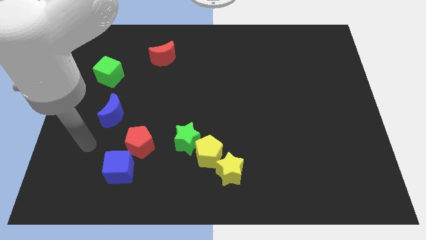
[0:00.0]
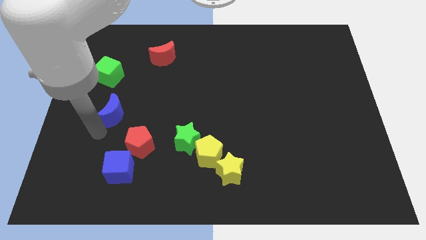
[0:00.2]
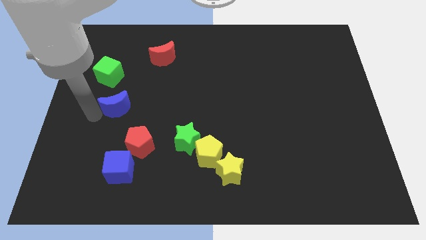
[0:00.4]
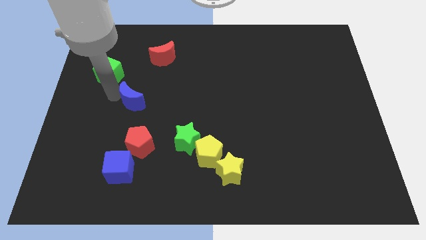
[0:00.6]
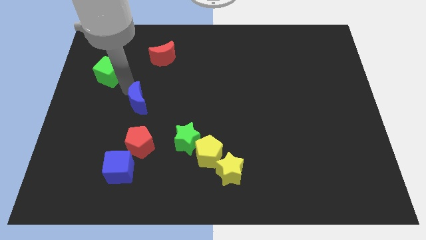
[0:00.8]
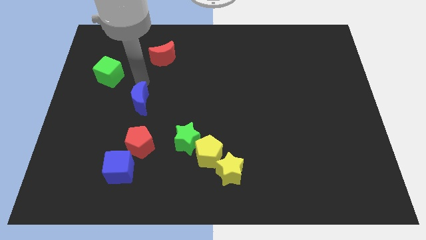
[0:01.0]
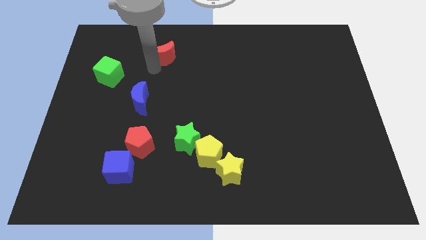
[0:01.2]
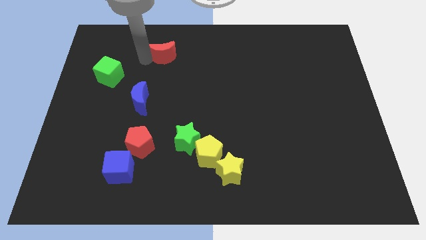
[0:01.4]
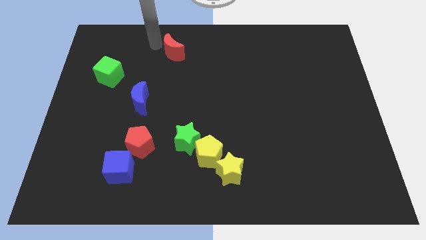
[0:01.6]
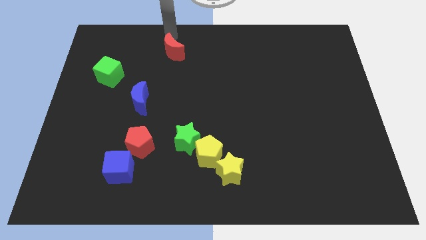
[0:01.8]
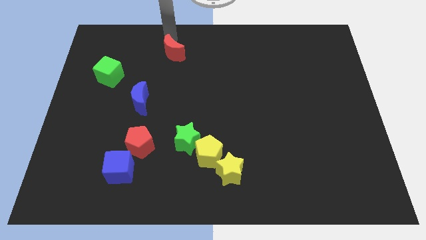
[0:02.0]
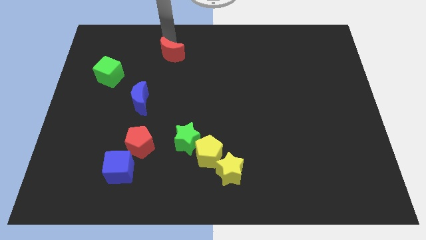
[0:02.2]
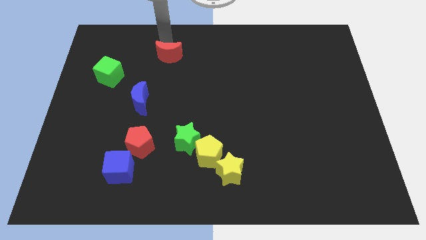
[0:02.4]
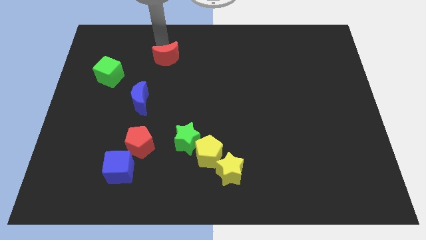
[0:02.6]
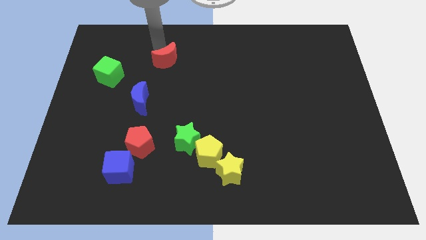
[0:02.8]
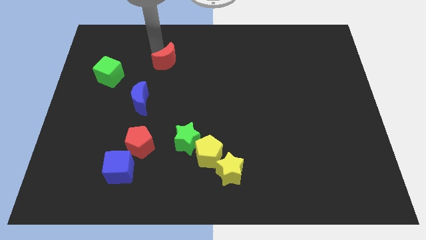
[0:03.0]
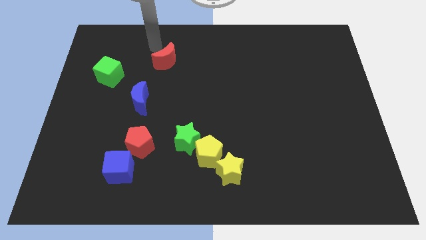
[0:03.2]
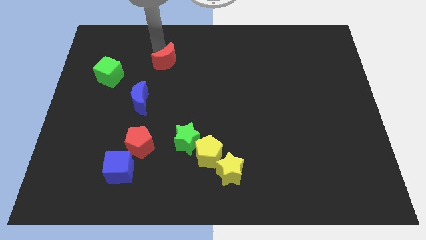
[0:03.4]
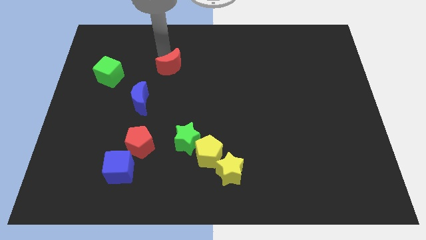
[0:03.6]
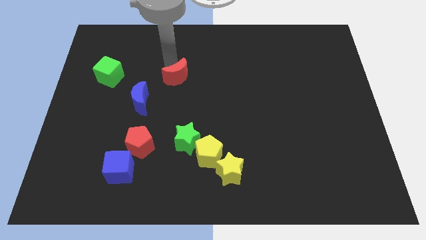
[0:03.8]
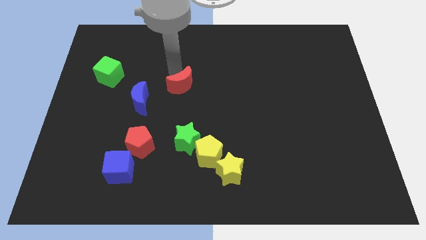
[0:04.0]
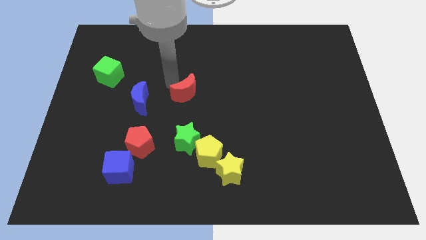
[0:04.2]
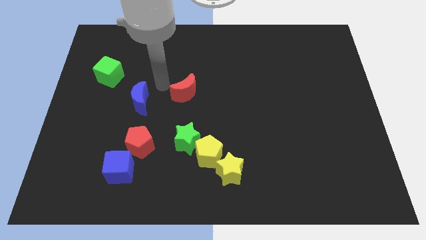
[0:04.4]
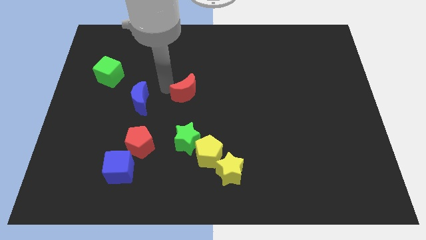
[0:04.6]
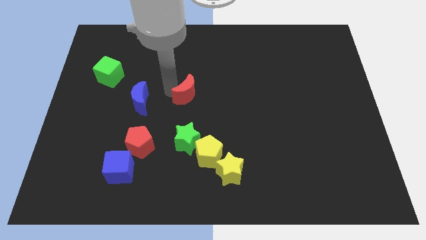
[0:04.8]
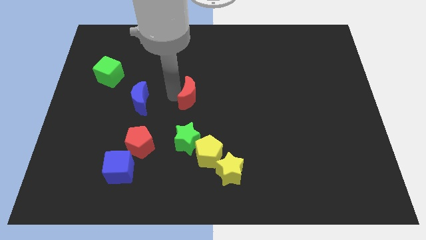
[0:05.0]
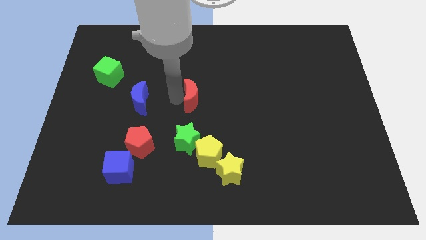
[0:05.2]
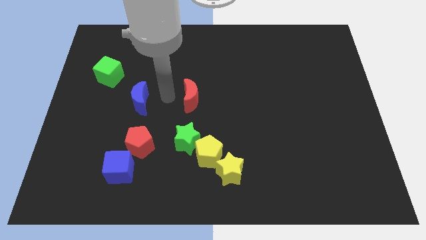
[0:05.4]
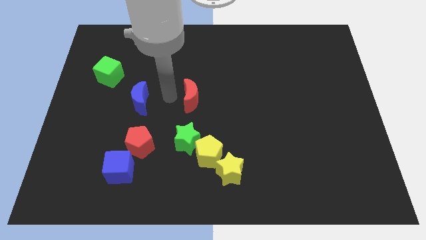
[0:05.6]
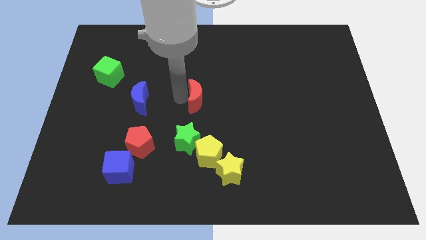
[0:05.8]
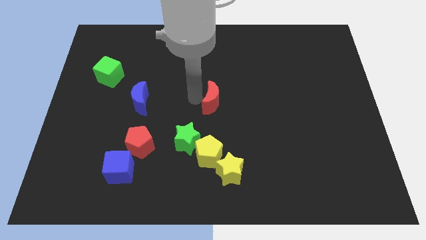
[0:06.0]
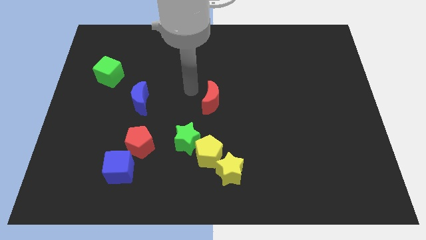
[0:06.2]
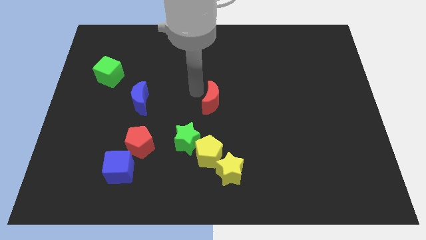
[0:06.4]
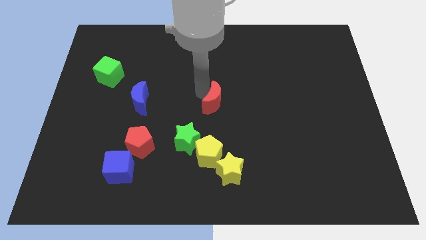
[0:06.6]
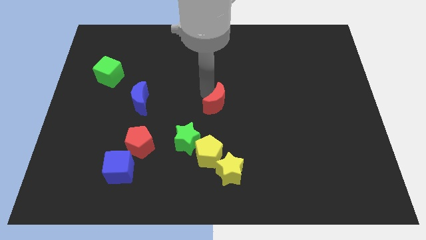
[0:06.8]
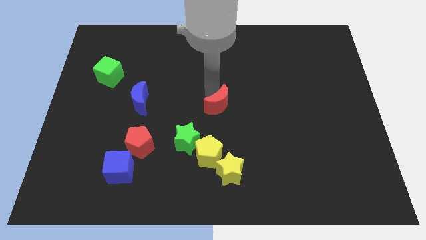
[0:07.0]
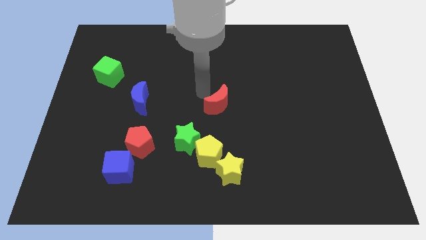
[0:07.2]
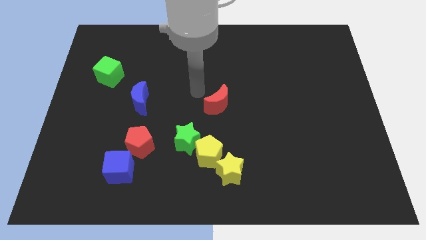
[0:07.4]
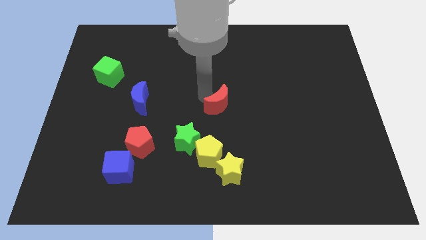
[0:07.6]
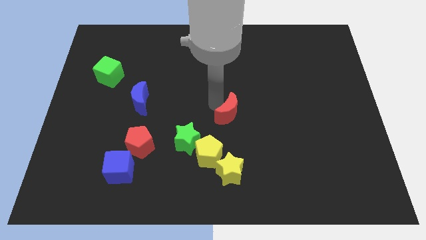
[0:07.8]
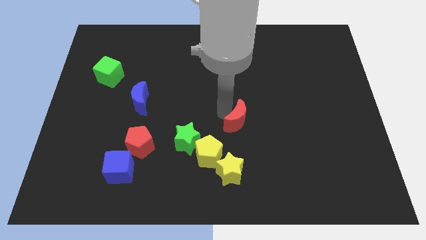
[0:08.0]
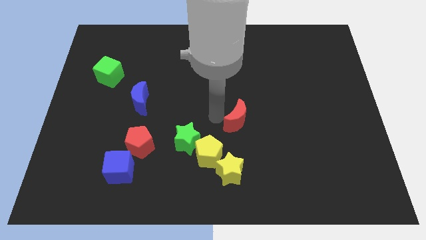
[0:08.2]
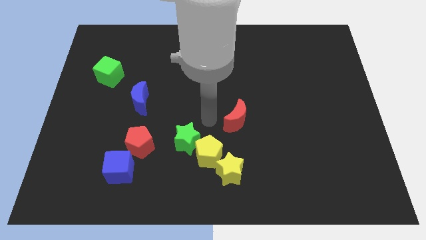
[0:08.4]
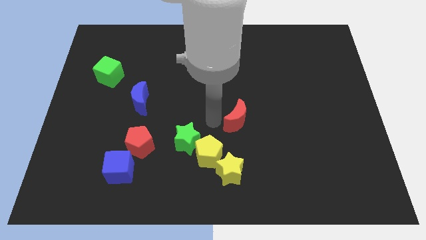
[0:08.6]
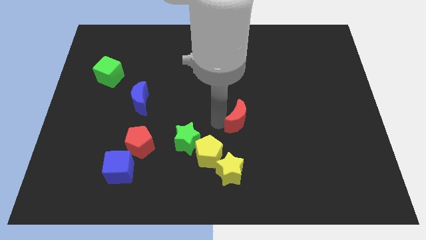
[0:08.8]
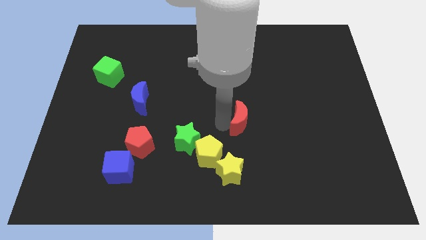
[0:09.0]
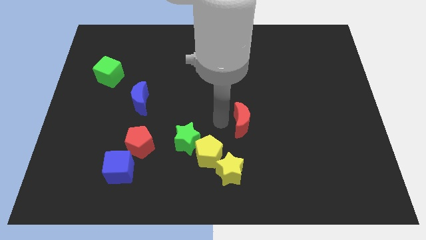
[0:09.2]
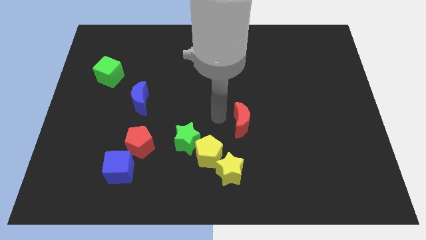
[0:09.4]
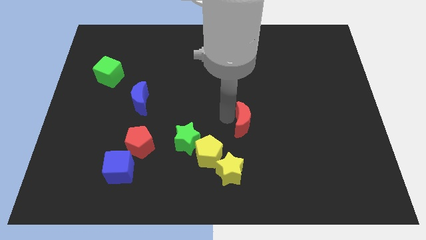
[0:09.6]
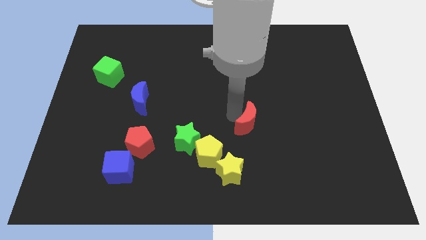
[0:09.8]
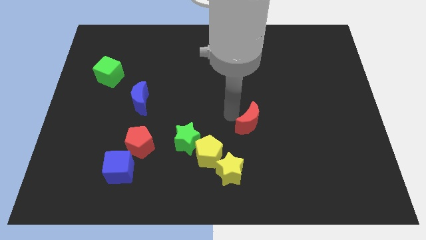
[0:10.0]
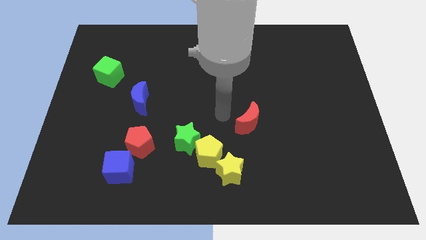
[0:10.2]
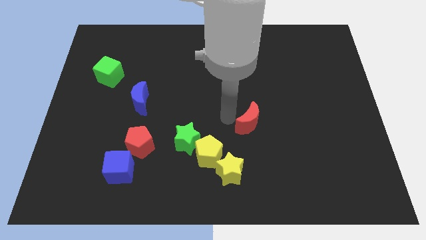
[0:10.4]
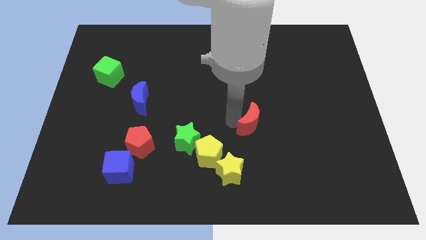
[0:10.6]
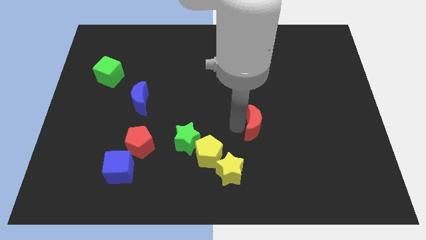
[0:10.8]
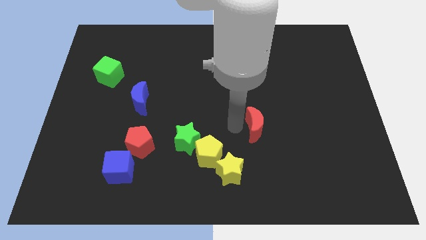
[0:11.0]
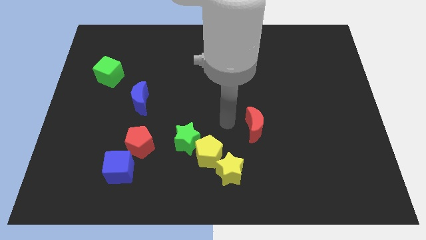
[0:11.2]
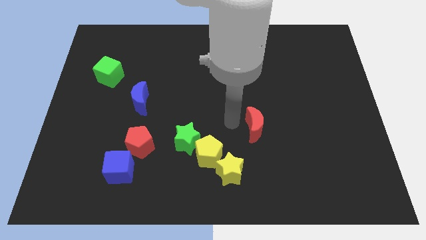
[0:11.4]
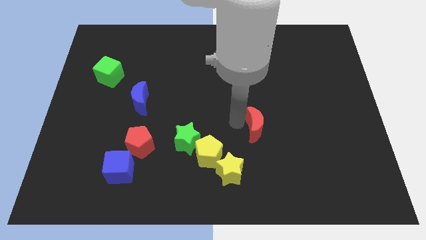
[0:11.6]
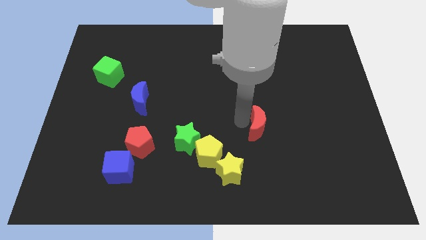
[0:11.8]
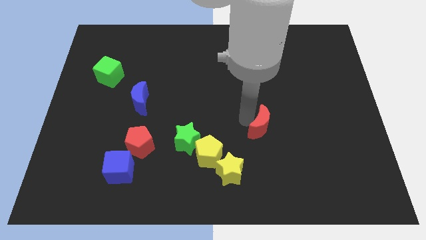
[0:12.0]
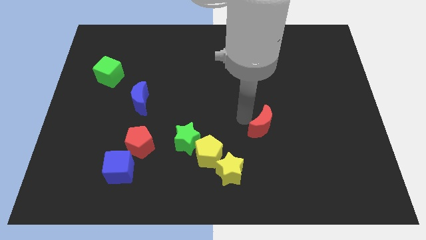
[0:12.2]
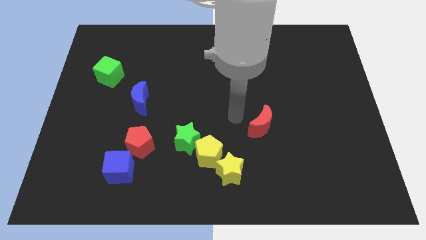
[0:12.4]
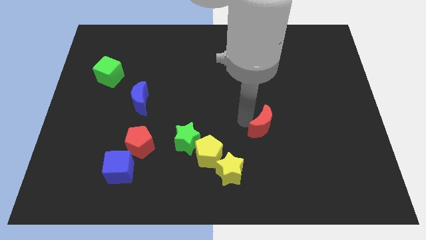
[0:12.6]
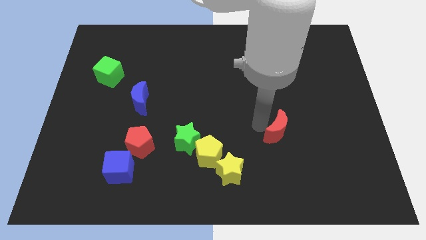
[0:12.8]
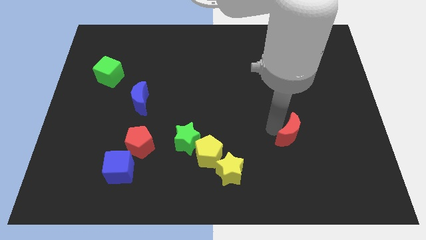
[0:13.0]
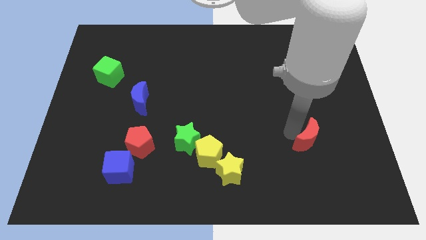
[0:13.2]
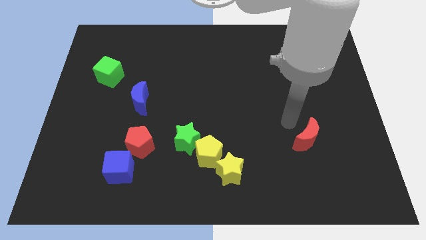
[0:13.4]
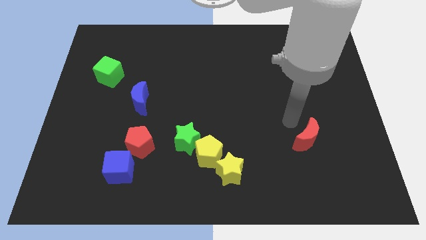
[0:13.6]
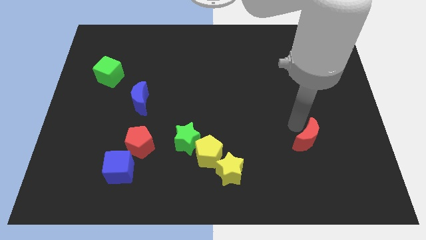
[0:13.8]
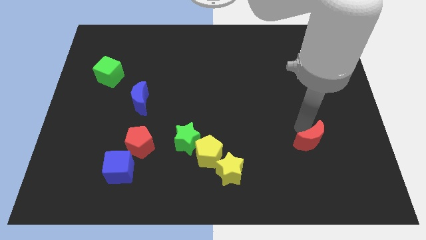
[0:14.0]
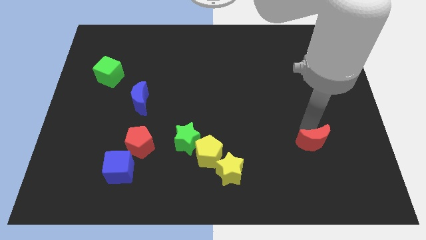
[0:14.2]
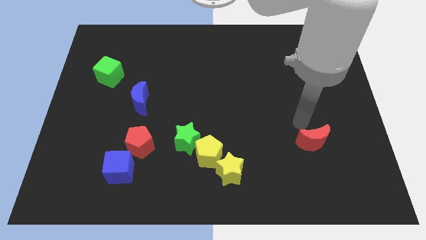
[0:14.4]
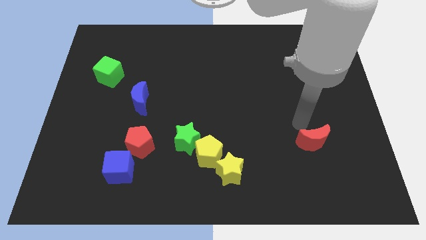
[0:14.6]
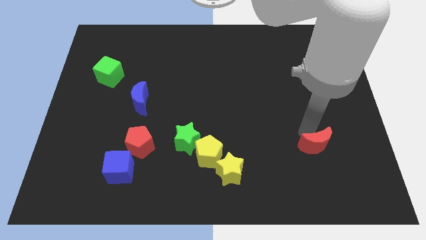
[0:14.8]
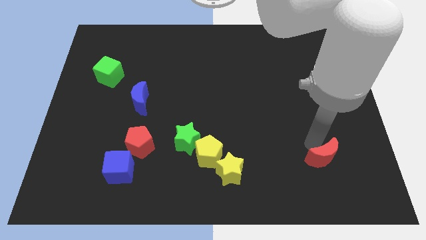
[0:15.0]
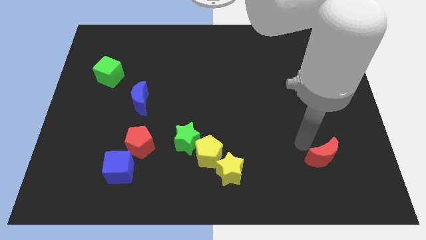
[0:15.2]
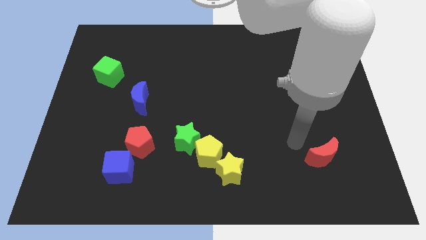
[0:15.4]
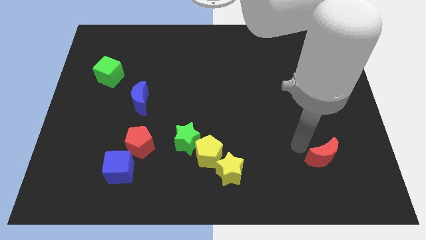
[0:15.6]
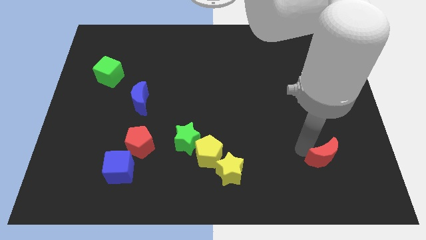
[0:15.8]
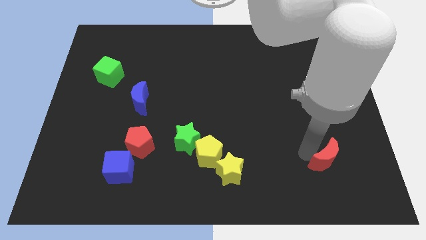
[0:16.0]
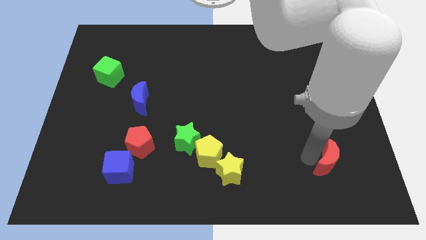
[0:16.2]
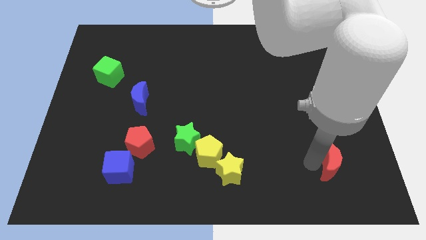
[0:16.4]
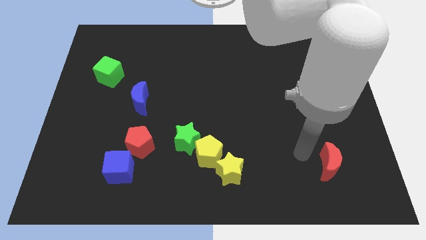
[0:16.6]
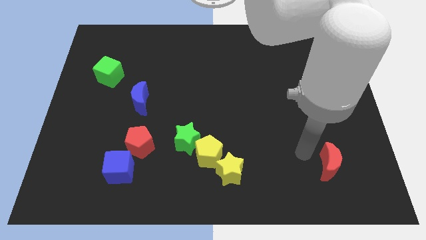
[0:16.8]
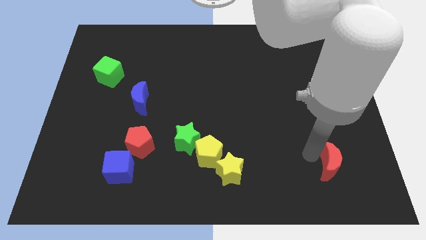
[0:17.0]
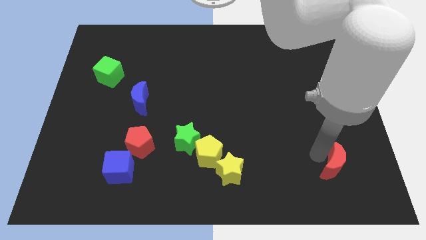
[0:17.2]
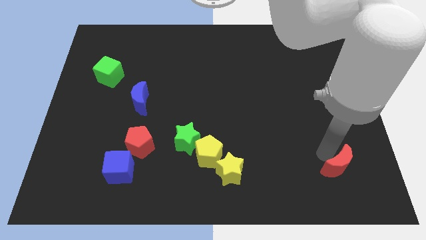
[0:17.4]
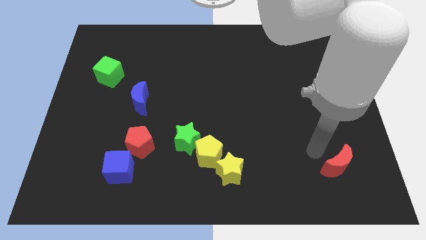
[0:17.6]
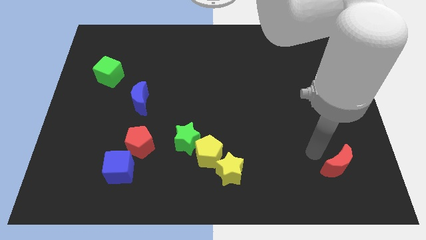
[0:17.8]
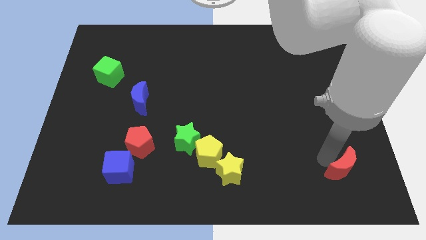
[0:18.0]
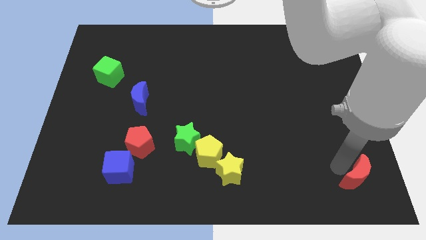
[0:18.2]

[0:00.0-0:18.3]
slide the red moon to the bottom right of the board
